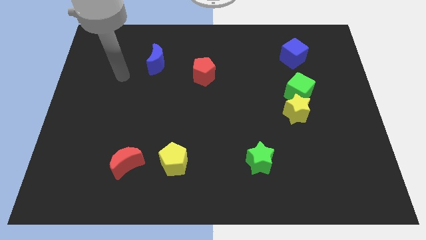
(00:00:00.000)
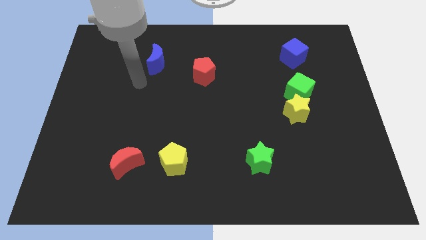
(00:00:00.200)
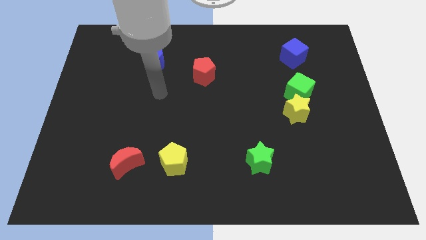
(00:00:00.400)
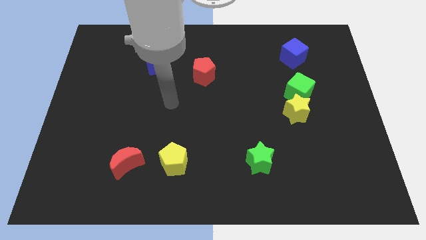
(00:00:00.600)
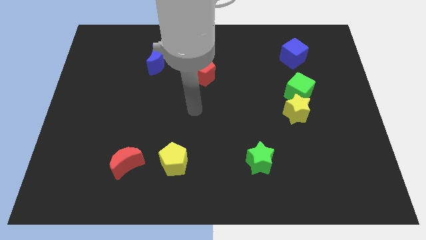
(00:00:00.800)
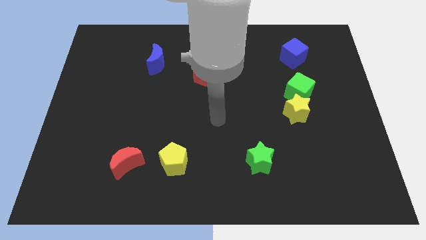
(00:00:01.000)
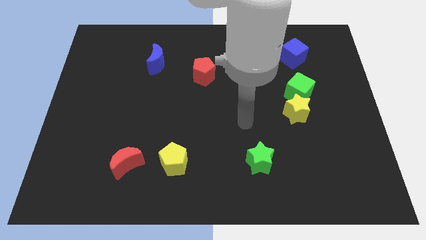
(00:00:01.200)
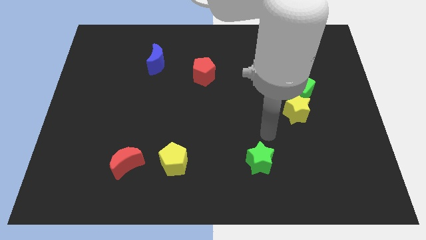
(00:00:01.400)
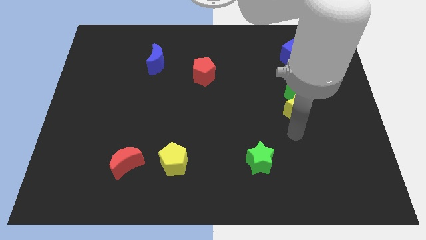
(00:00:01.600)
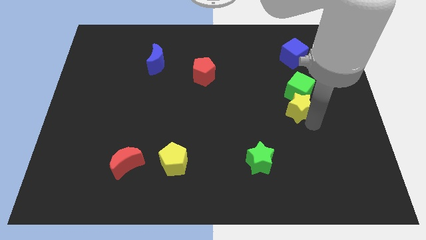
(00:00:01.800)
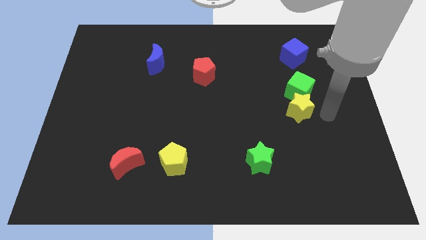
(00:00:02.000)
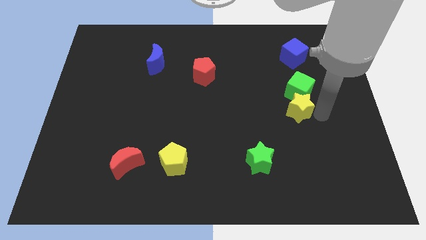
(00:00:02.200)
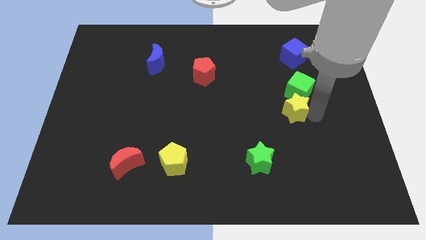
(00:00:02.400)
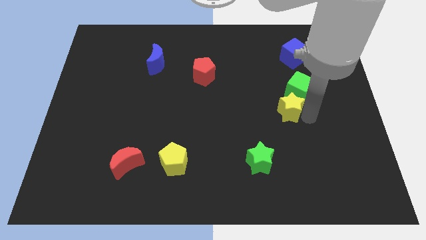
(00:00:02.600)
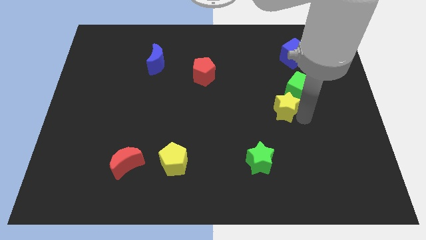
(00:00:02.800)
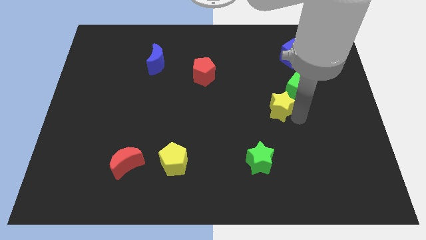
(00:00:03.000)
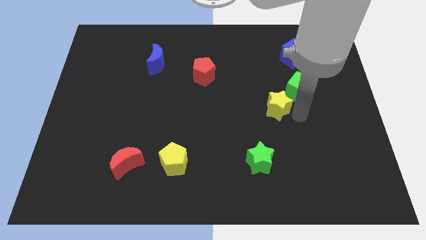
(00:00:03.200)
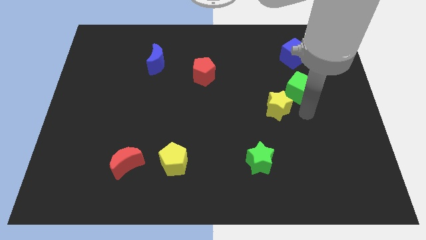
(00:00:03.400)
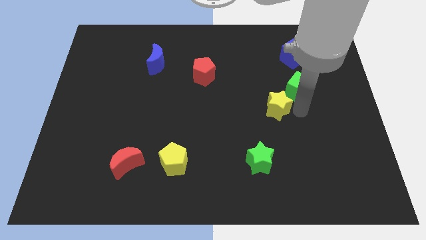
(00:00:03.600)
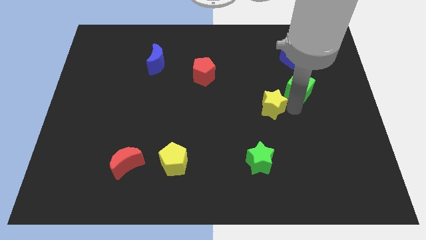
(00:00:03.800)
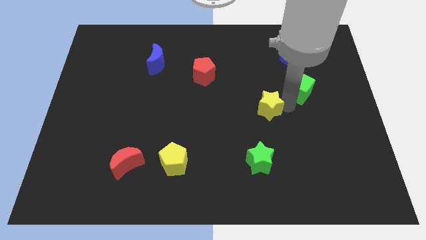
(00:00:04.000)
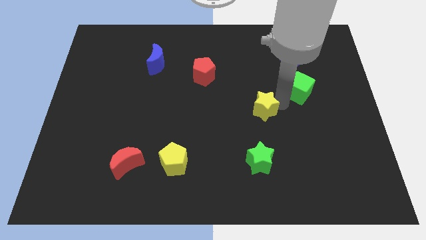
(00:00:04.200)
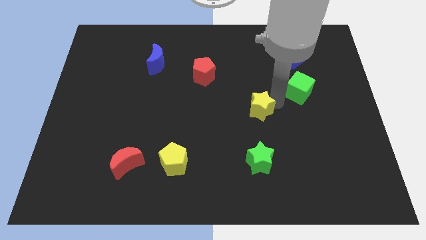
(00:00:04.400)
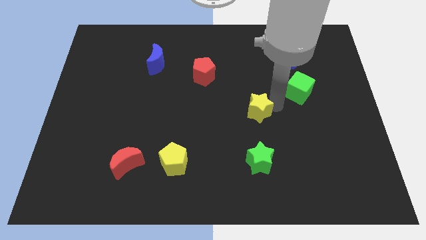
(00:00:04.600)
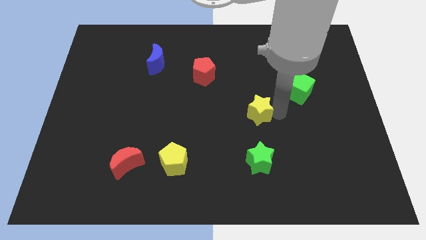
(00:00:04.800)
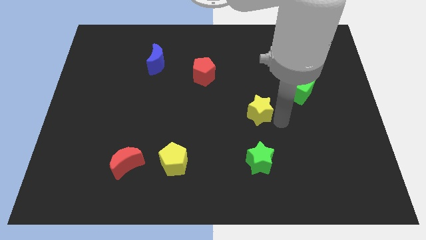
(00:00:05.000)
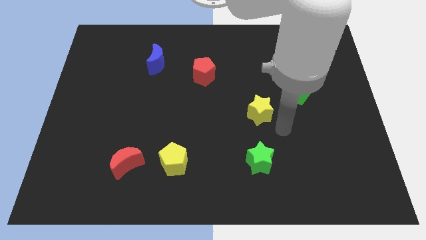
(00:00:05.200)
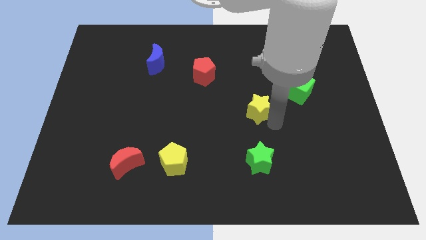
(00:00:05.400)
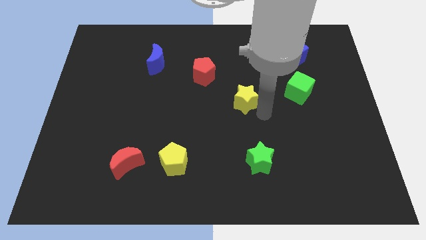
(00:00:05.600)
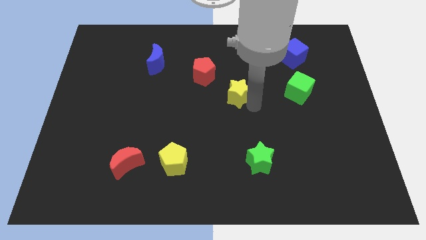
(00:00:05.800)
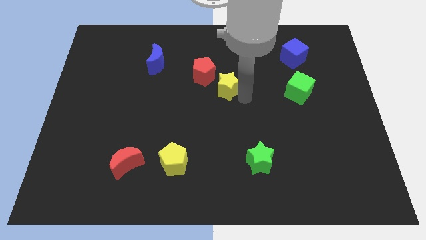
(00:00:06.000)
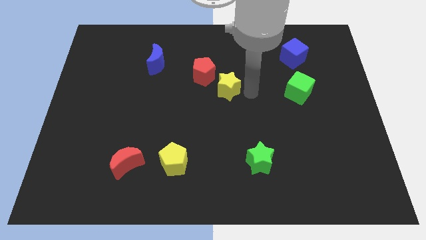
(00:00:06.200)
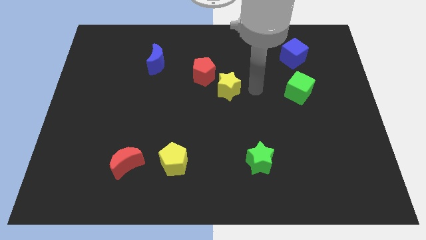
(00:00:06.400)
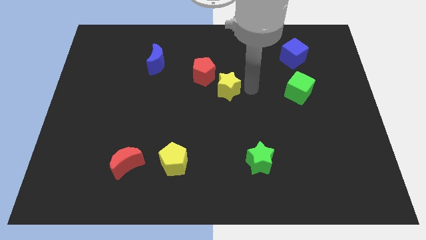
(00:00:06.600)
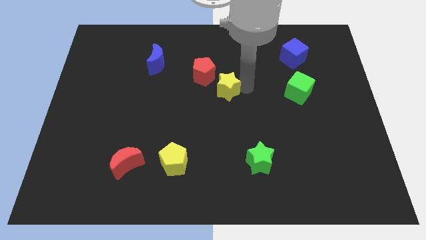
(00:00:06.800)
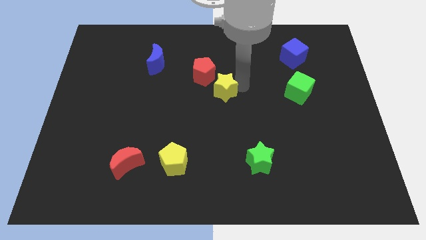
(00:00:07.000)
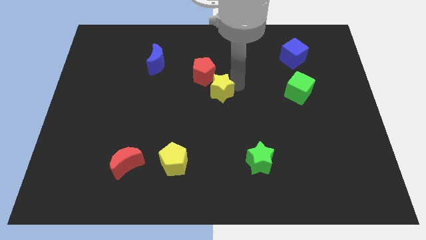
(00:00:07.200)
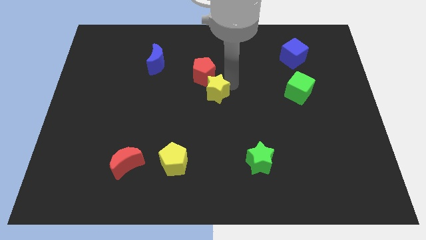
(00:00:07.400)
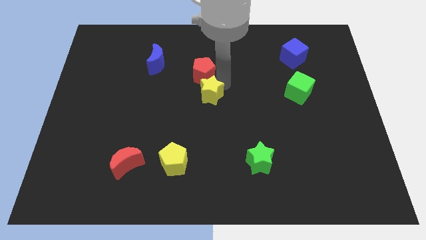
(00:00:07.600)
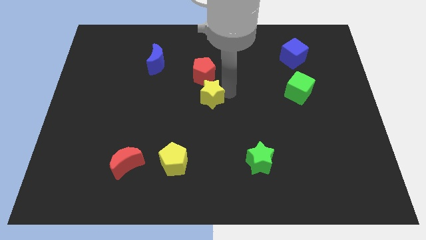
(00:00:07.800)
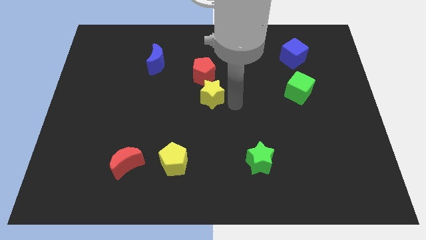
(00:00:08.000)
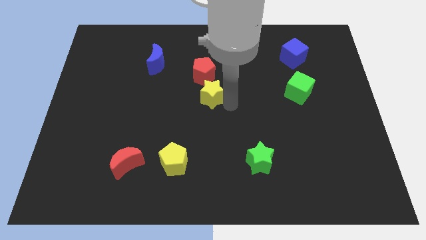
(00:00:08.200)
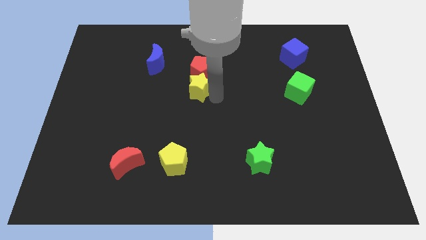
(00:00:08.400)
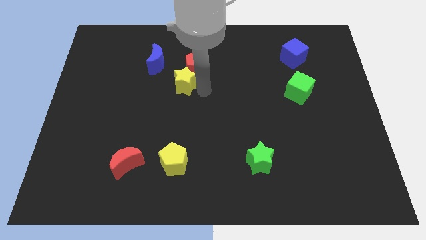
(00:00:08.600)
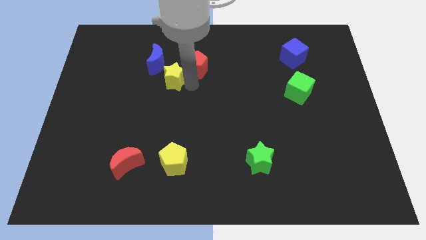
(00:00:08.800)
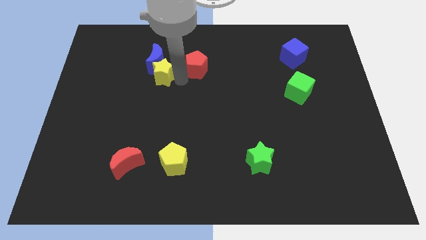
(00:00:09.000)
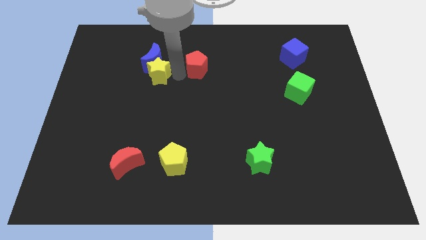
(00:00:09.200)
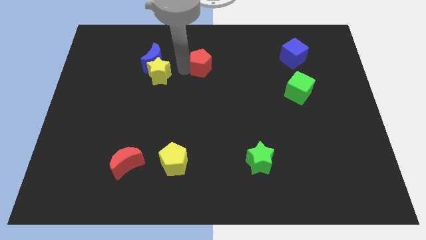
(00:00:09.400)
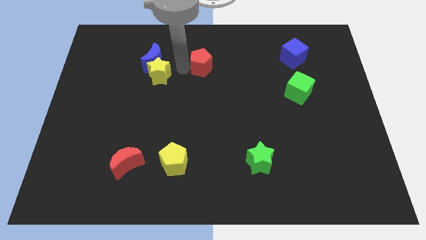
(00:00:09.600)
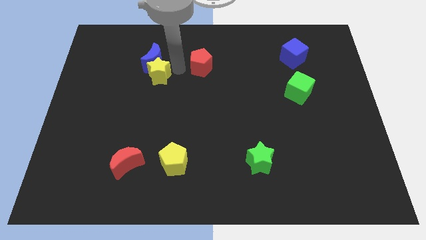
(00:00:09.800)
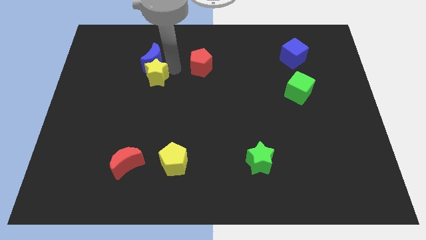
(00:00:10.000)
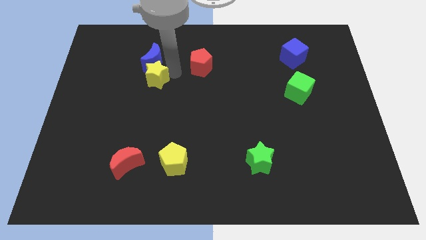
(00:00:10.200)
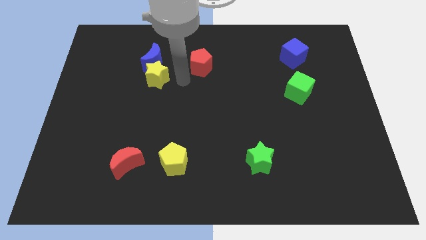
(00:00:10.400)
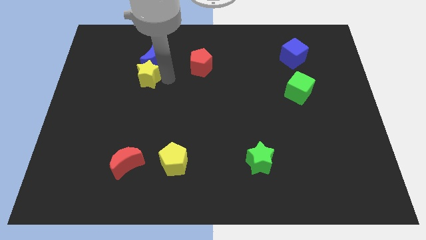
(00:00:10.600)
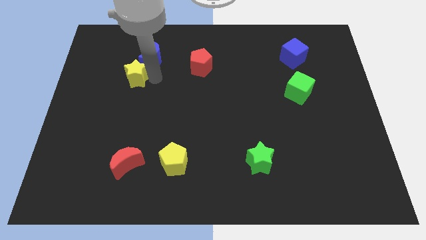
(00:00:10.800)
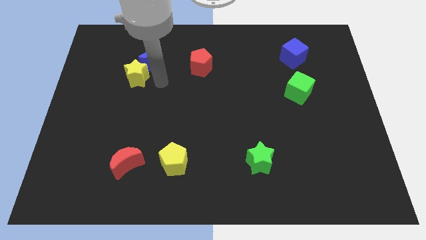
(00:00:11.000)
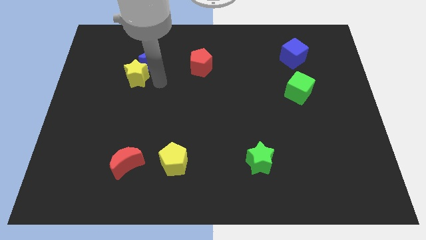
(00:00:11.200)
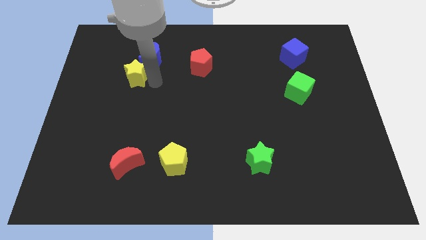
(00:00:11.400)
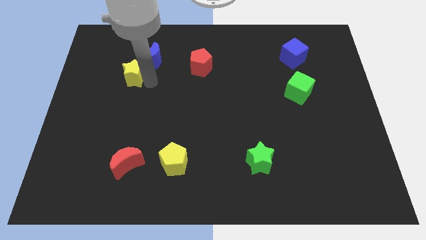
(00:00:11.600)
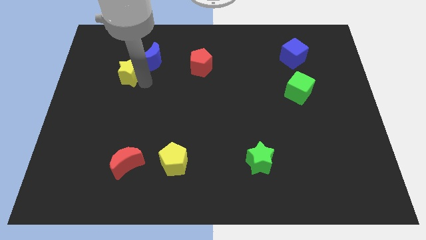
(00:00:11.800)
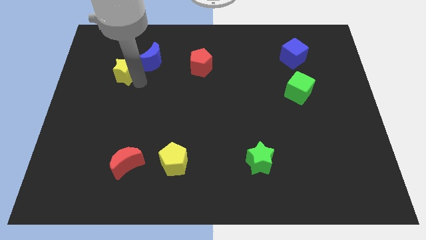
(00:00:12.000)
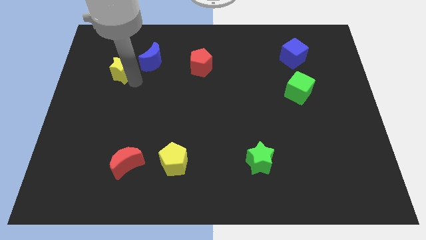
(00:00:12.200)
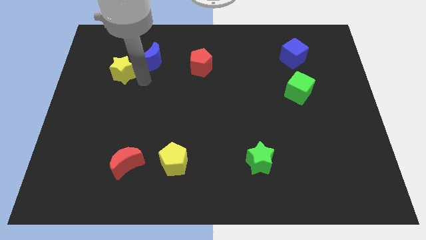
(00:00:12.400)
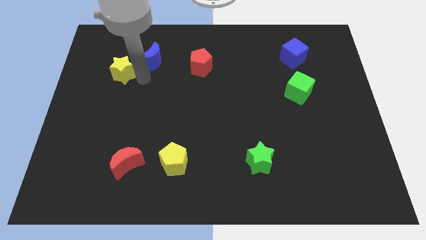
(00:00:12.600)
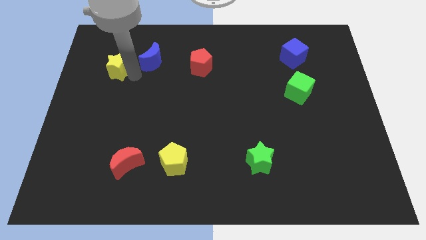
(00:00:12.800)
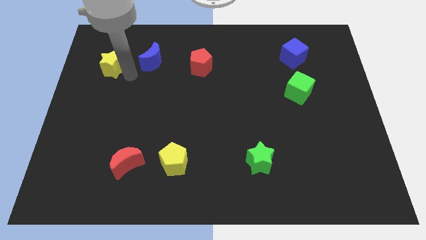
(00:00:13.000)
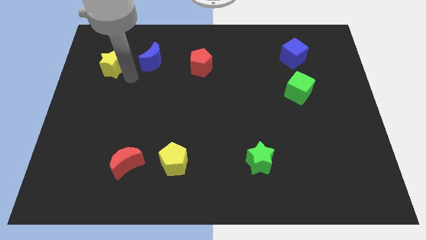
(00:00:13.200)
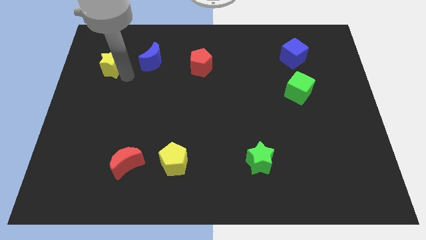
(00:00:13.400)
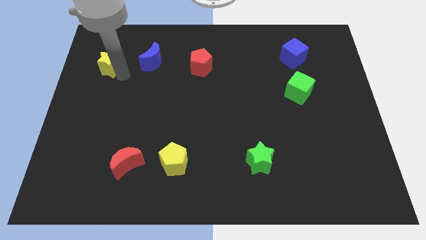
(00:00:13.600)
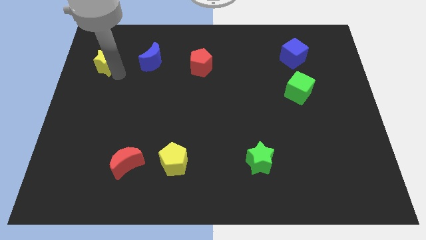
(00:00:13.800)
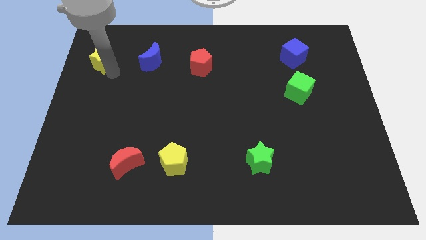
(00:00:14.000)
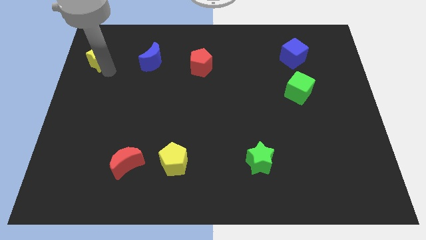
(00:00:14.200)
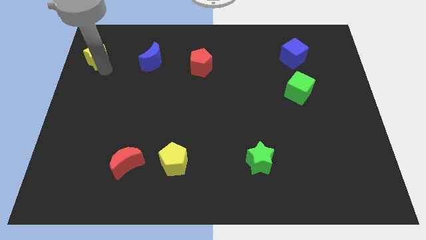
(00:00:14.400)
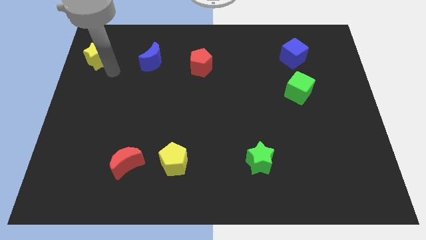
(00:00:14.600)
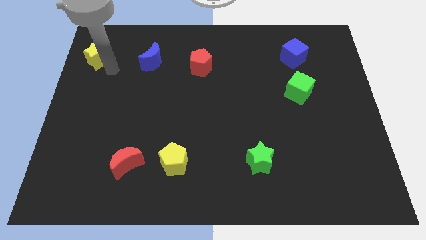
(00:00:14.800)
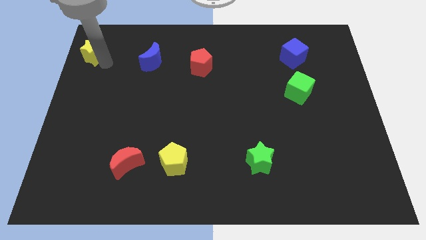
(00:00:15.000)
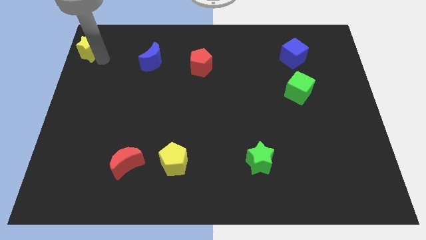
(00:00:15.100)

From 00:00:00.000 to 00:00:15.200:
slide the yellow star to the upper left corner
